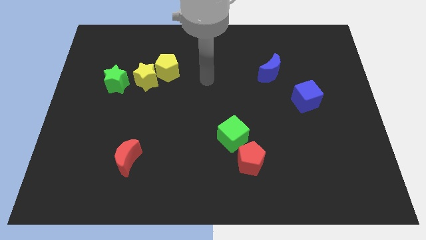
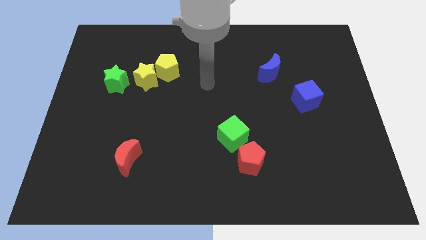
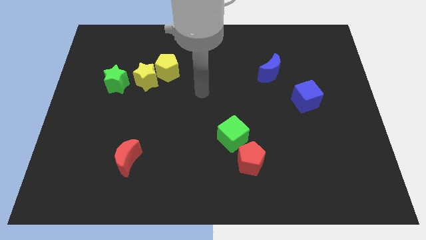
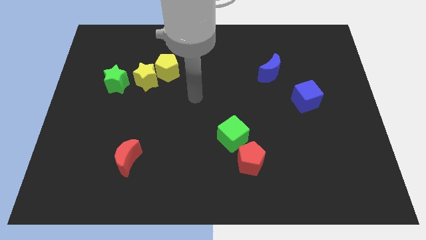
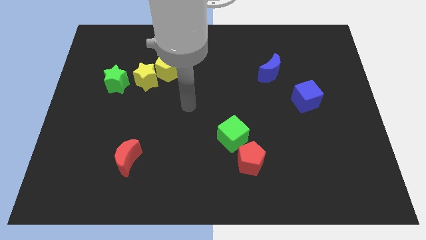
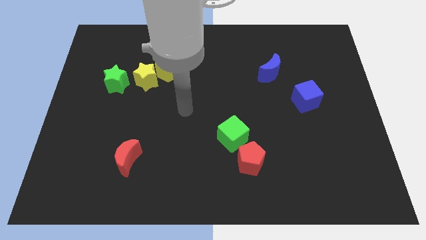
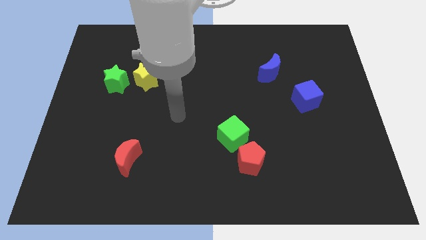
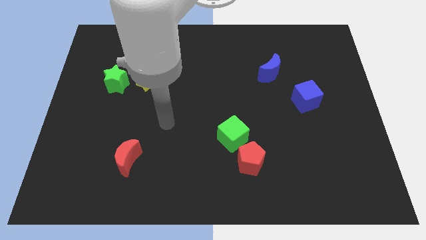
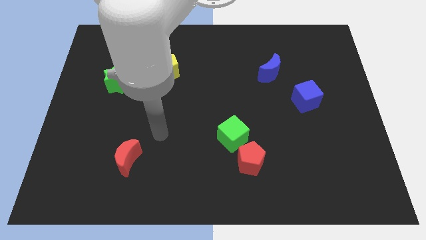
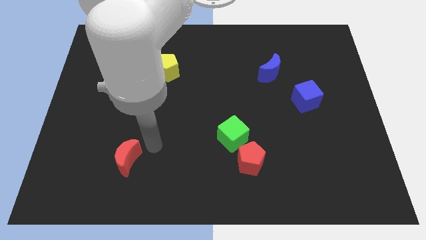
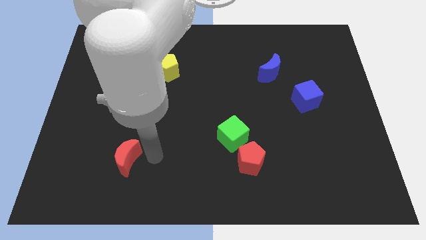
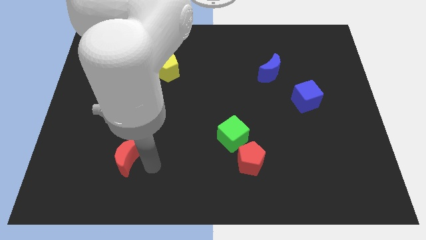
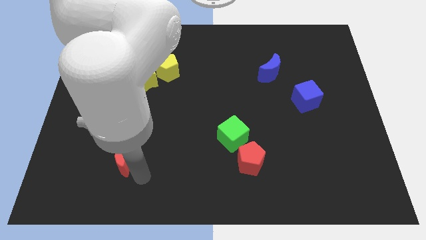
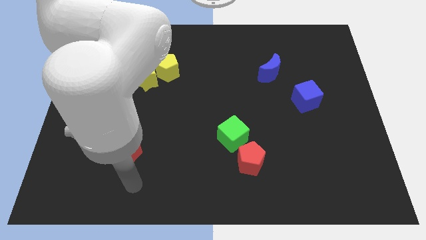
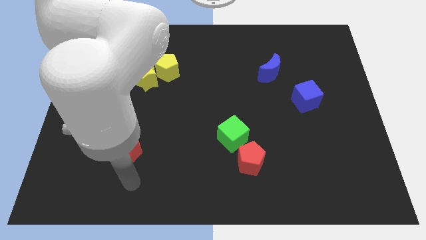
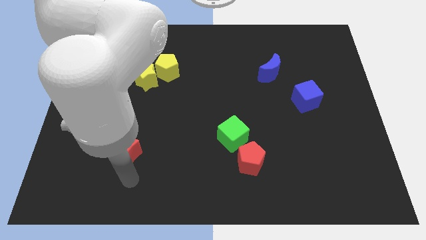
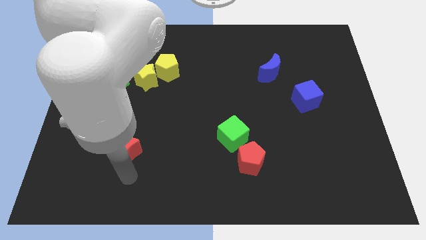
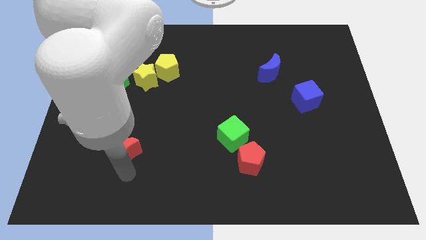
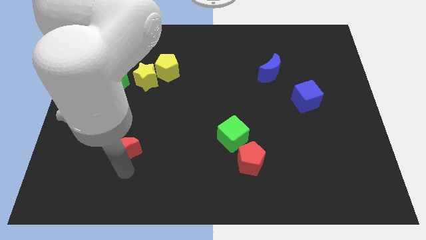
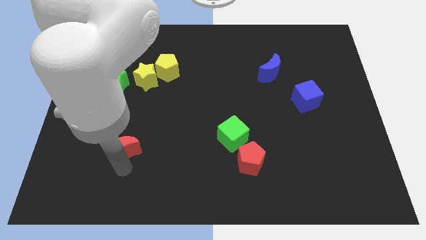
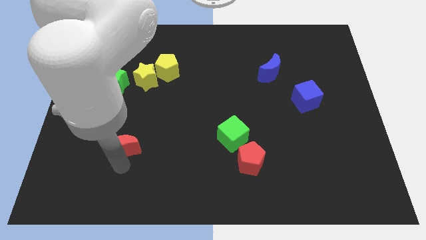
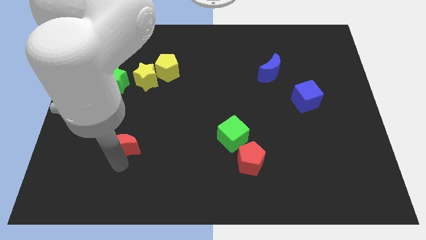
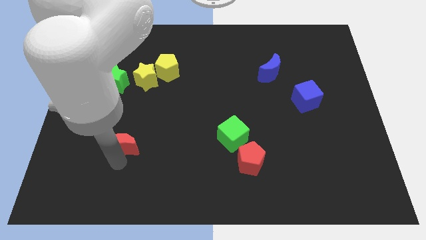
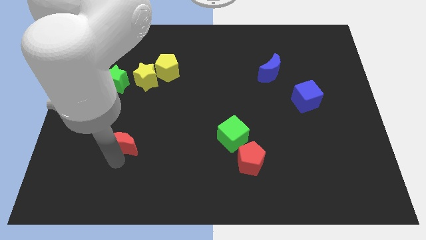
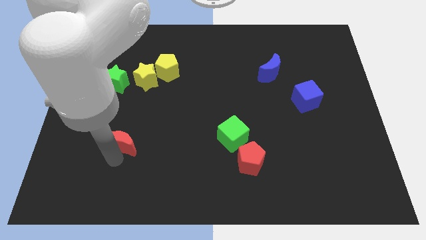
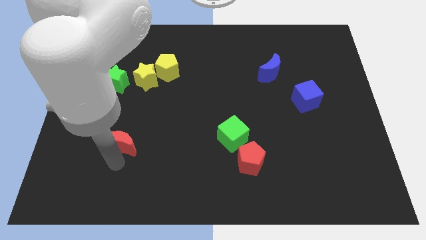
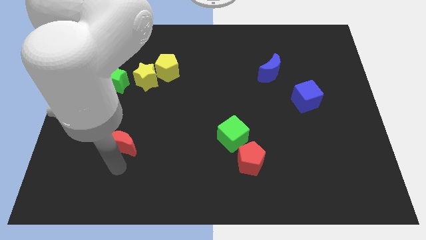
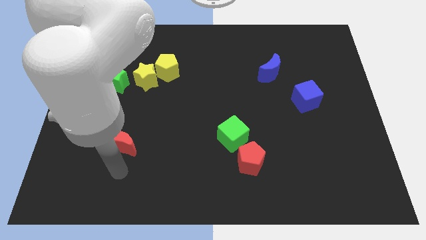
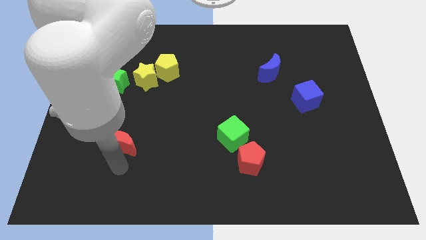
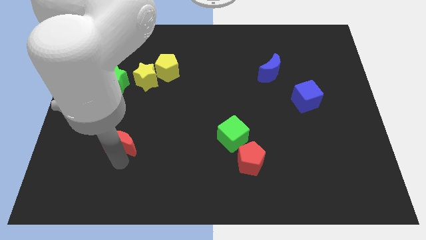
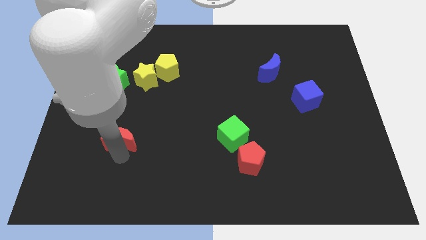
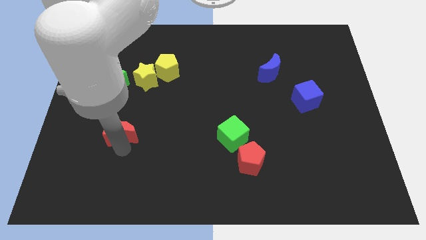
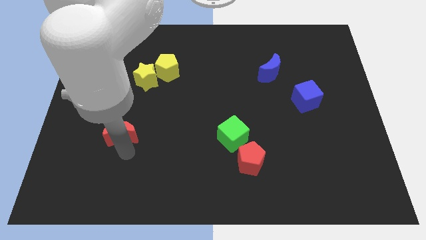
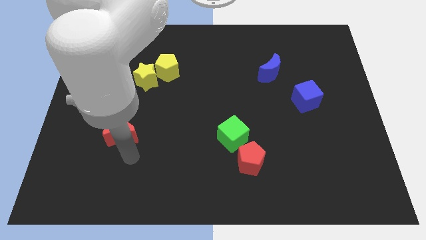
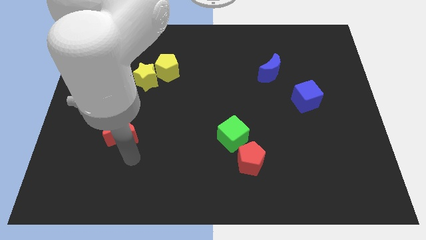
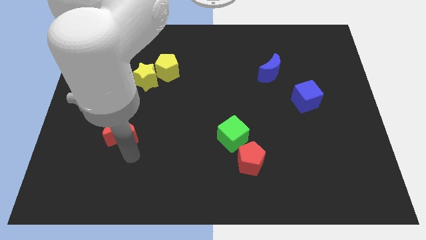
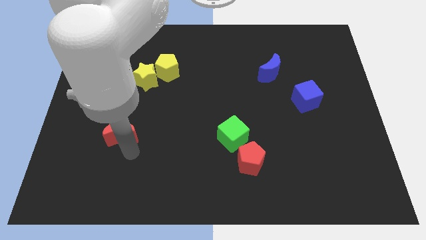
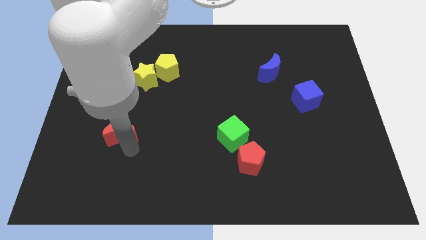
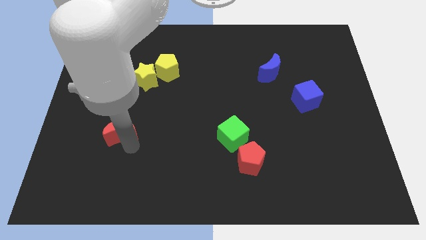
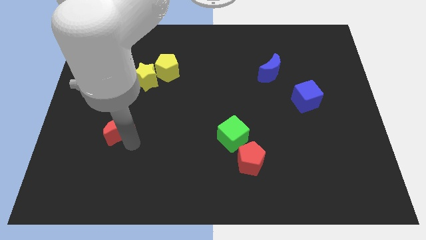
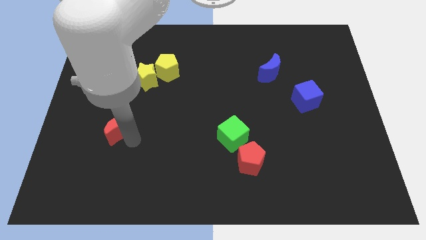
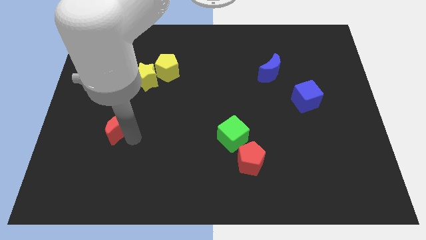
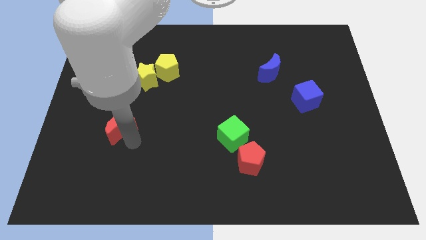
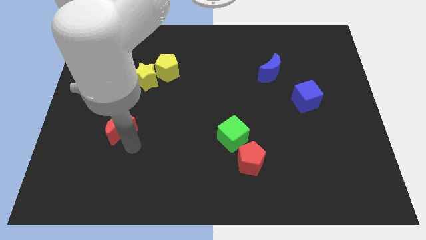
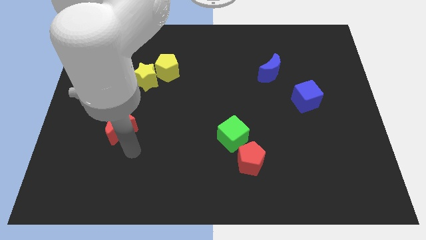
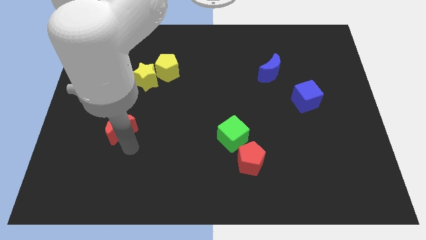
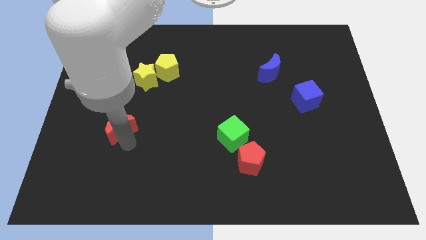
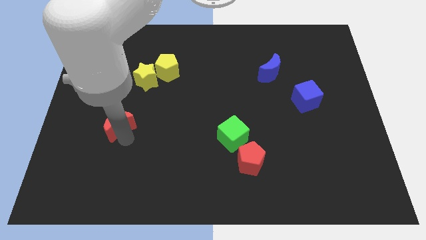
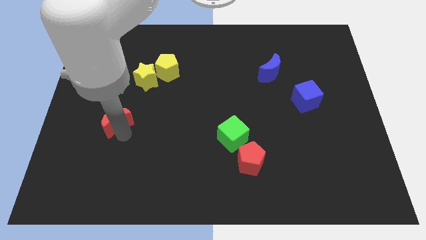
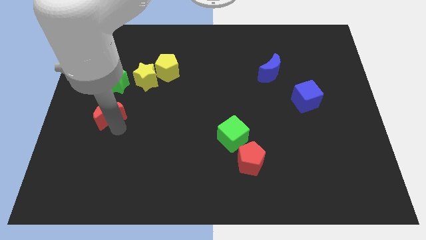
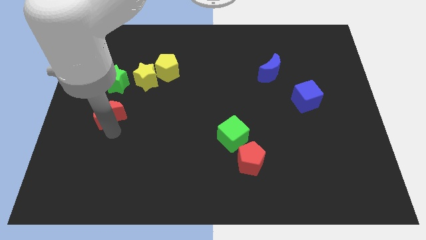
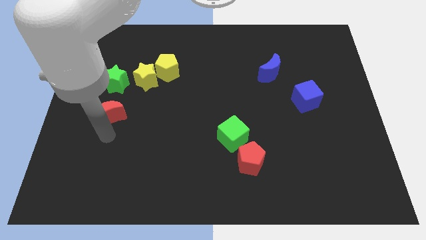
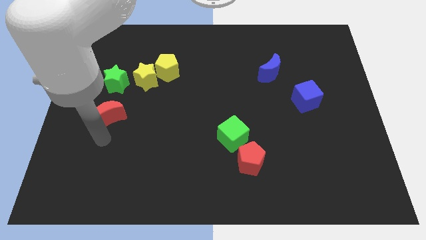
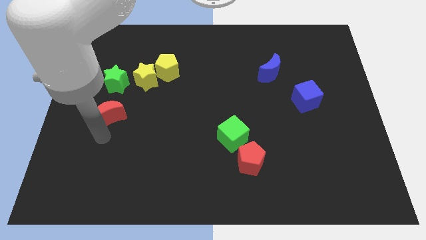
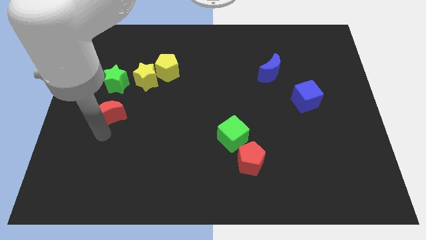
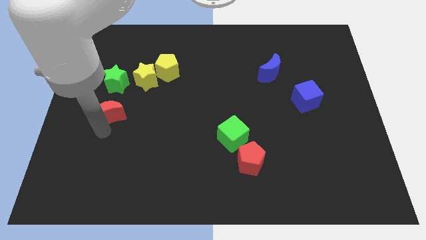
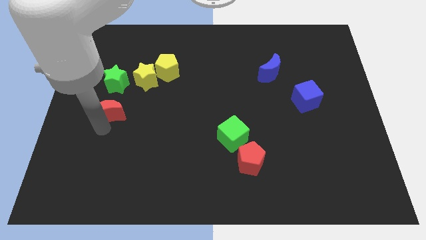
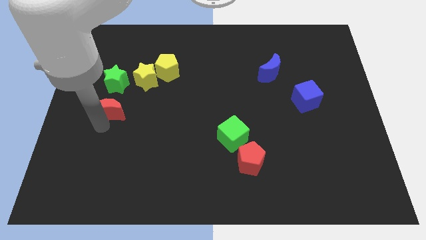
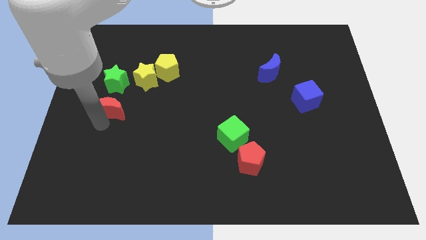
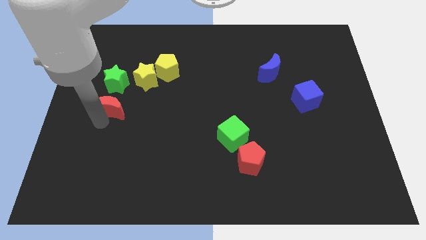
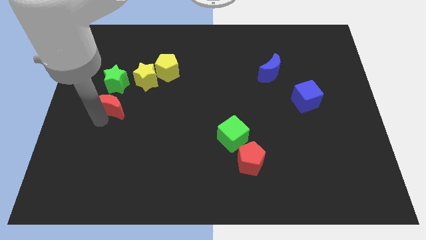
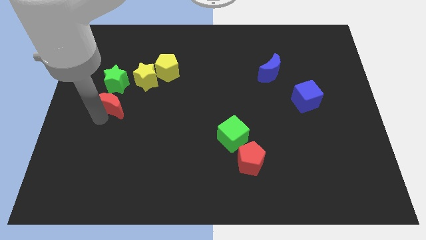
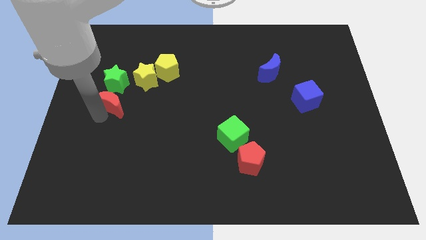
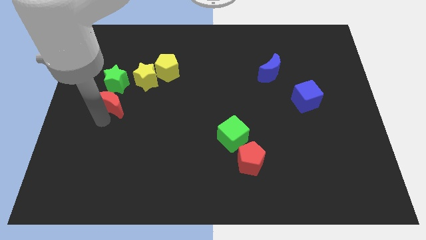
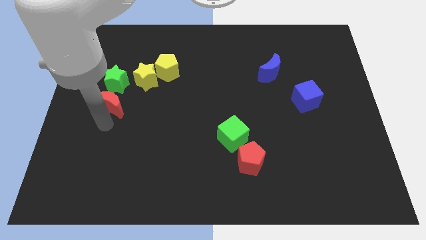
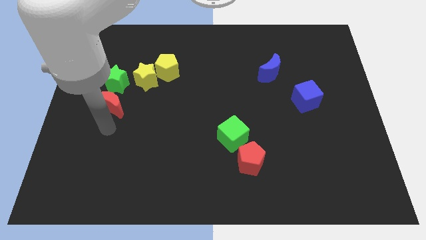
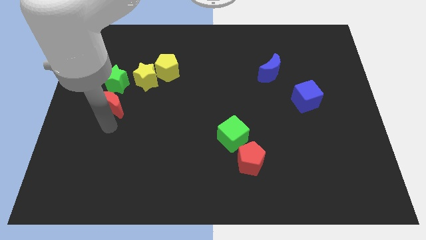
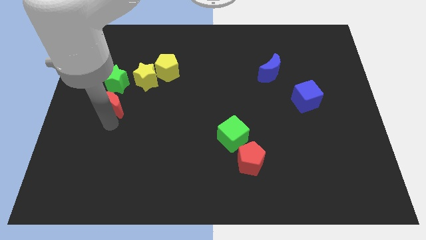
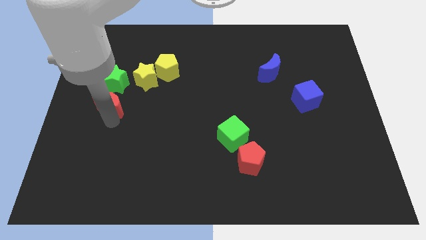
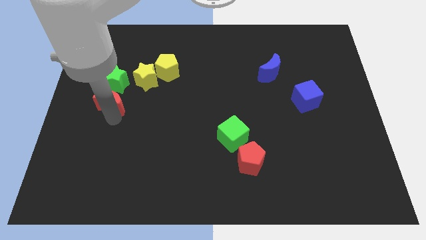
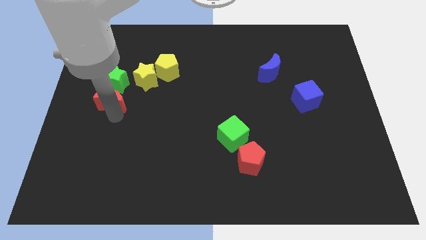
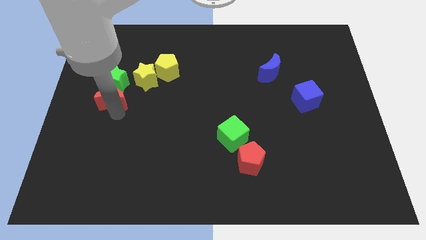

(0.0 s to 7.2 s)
move the red moon close to the green star
